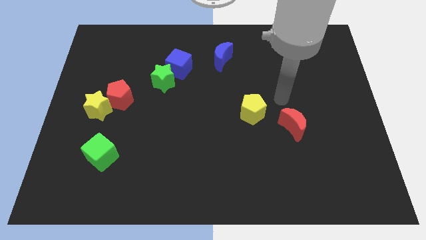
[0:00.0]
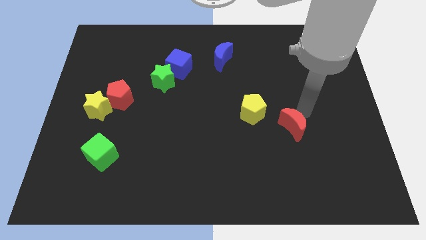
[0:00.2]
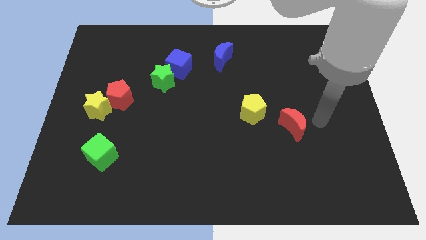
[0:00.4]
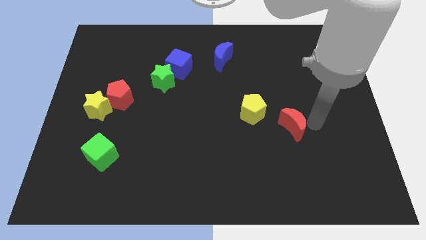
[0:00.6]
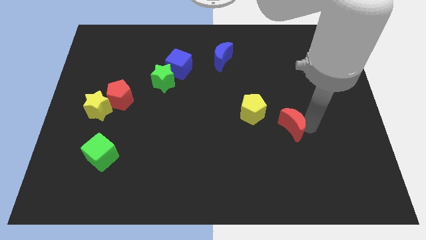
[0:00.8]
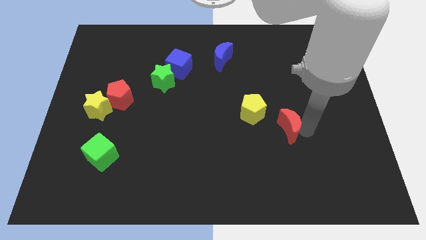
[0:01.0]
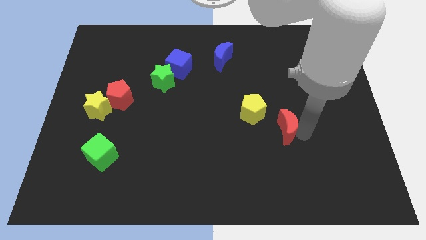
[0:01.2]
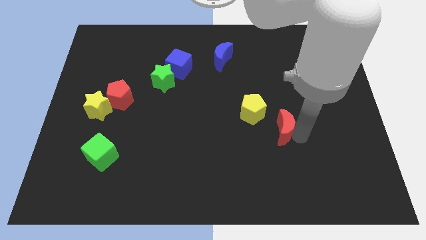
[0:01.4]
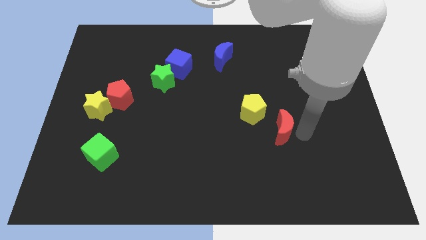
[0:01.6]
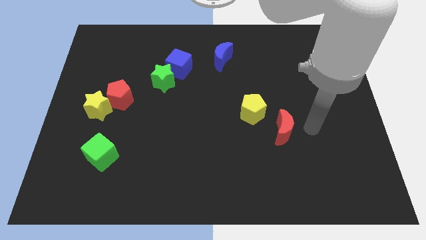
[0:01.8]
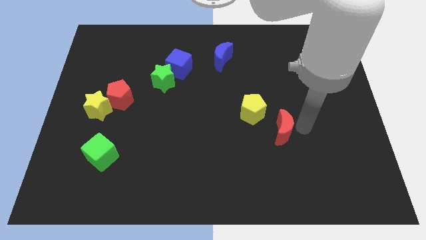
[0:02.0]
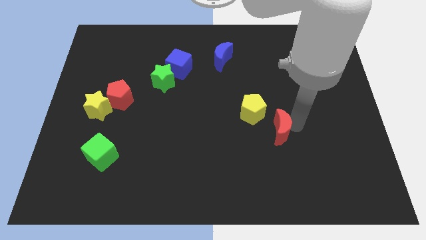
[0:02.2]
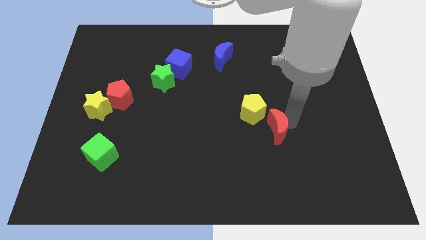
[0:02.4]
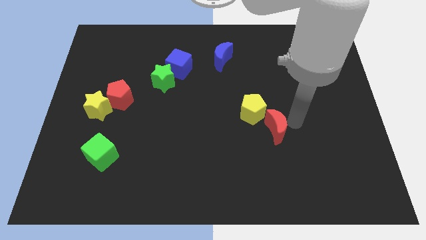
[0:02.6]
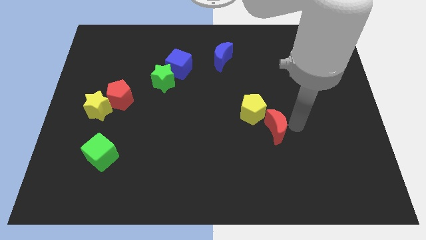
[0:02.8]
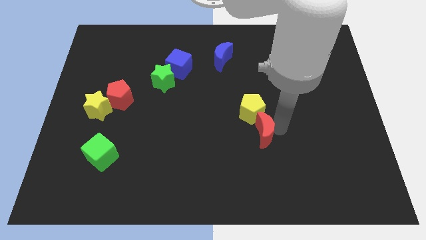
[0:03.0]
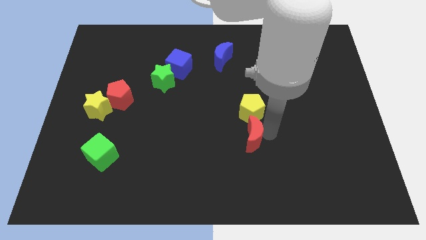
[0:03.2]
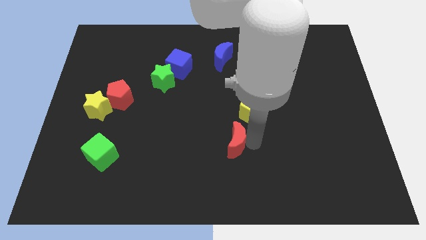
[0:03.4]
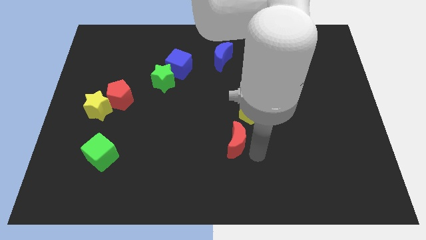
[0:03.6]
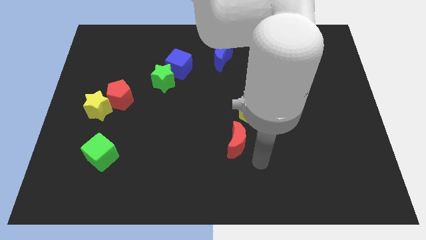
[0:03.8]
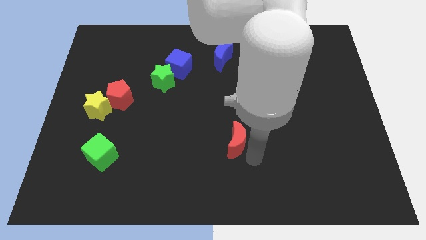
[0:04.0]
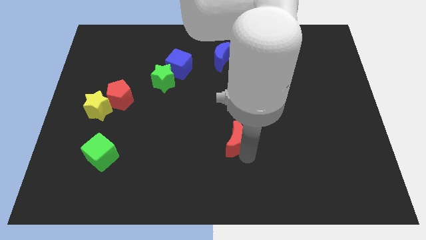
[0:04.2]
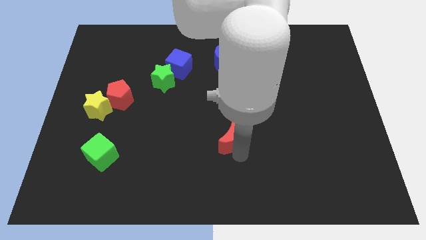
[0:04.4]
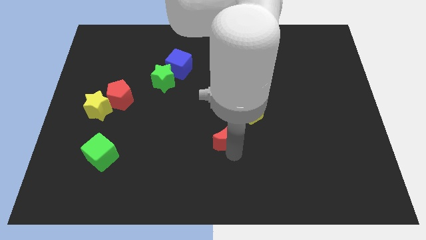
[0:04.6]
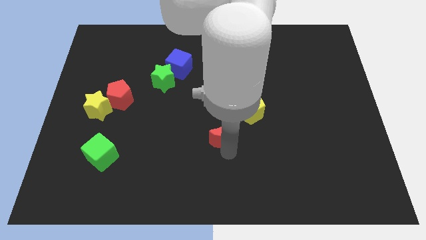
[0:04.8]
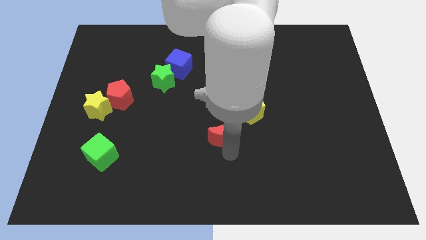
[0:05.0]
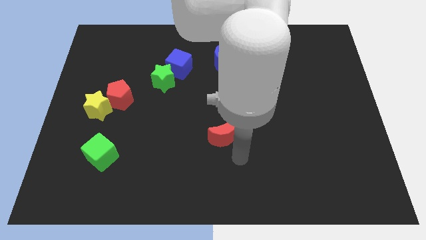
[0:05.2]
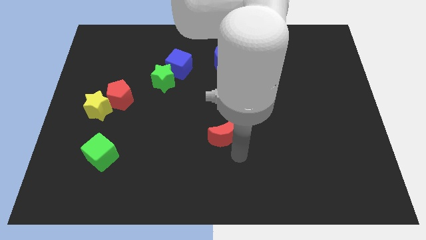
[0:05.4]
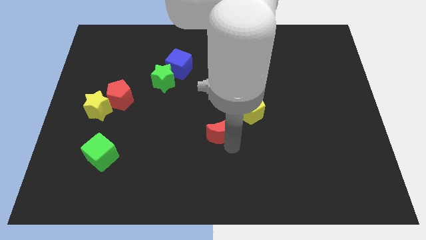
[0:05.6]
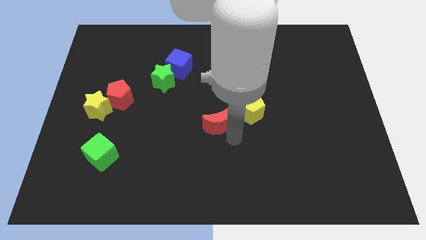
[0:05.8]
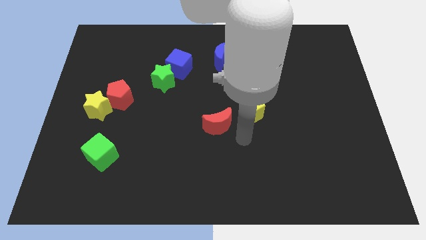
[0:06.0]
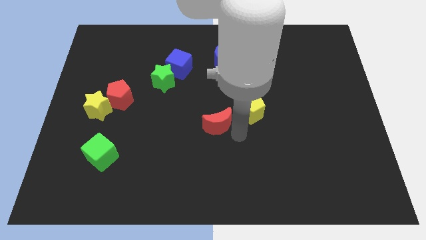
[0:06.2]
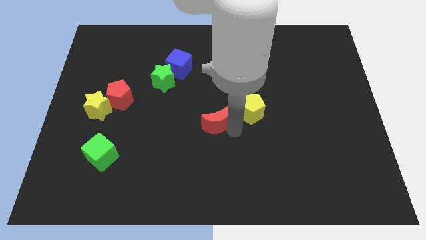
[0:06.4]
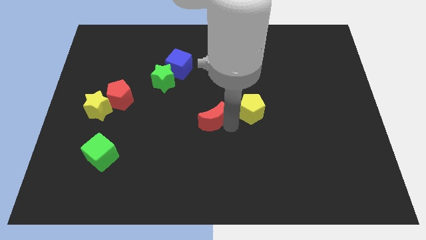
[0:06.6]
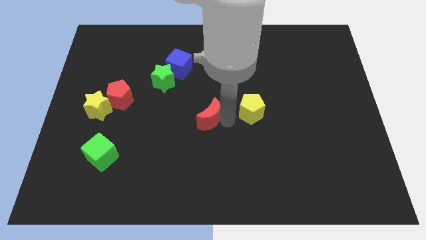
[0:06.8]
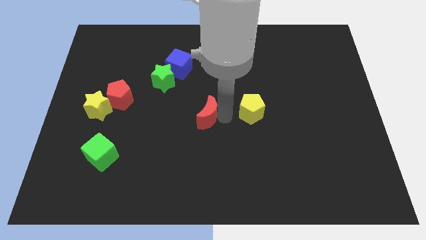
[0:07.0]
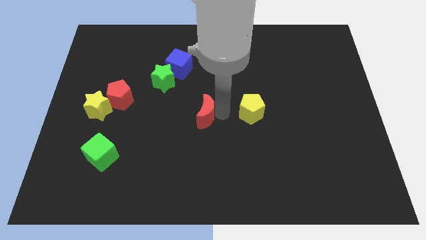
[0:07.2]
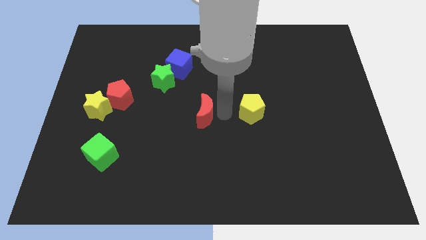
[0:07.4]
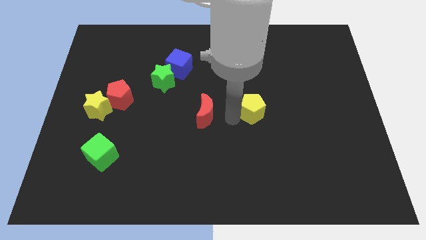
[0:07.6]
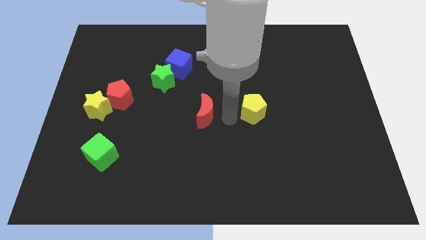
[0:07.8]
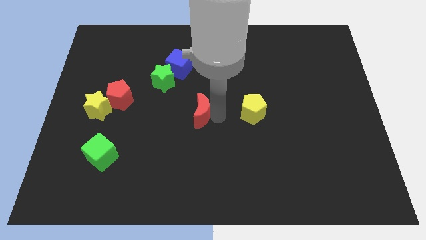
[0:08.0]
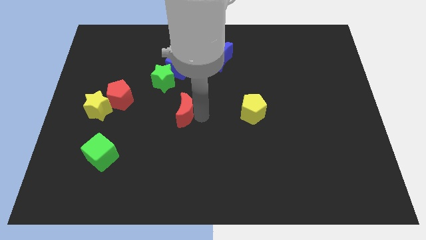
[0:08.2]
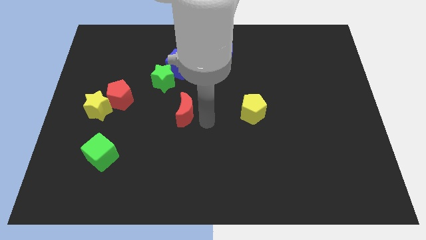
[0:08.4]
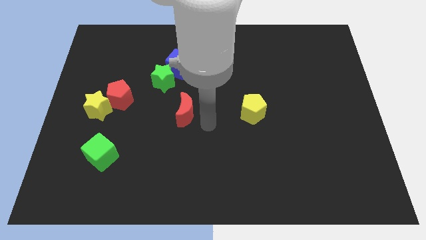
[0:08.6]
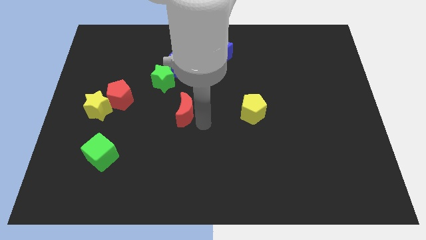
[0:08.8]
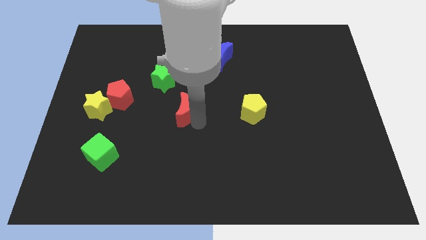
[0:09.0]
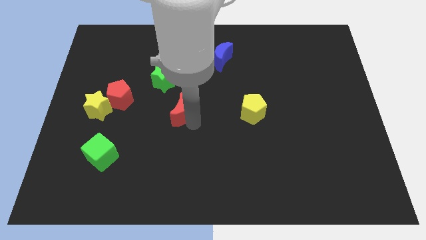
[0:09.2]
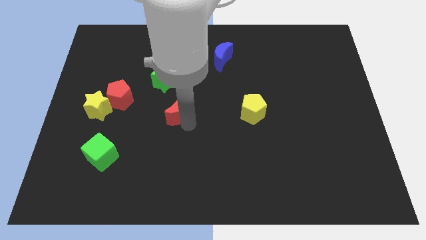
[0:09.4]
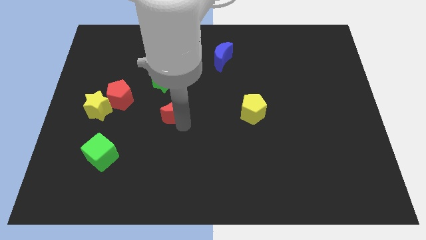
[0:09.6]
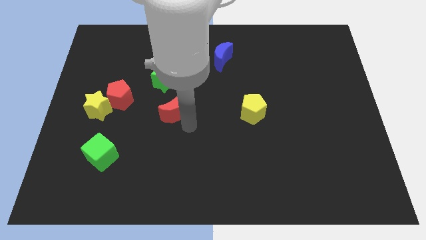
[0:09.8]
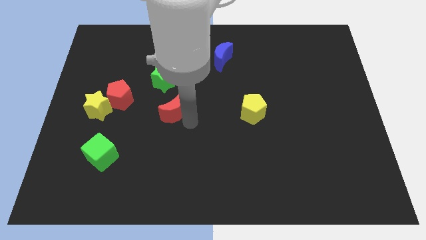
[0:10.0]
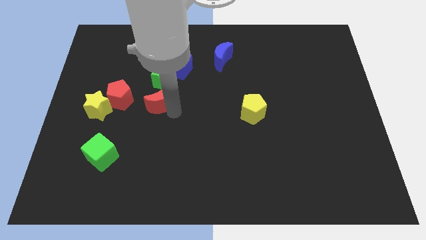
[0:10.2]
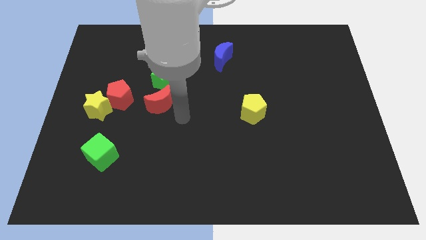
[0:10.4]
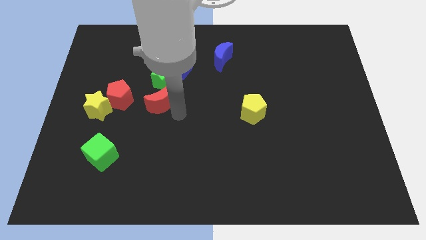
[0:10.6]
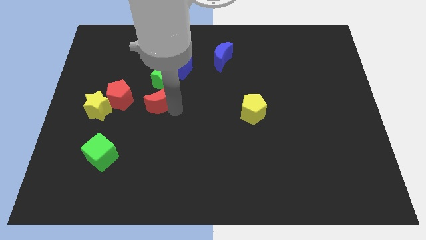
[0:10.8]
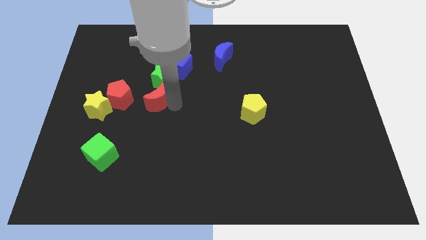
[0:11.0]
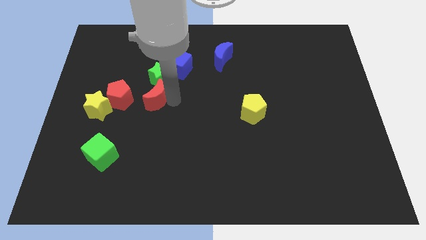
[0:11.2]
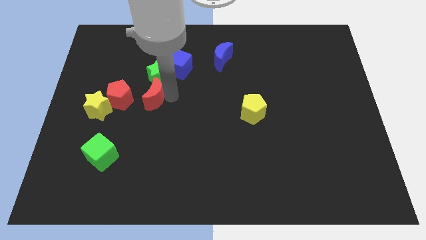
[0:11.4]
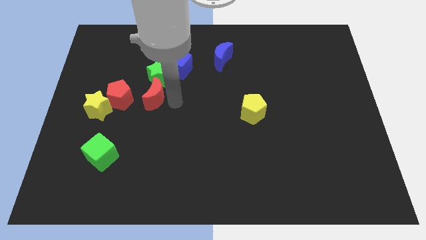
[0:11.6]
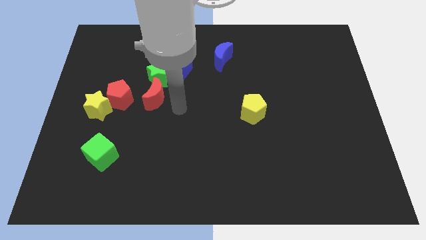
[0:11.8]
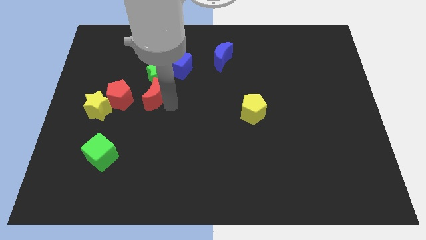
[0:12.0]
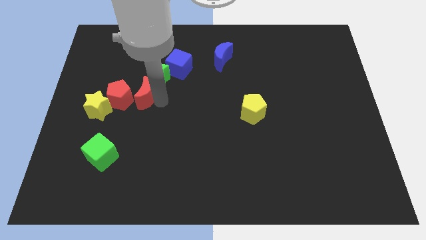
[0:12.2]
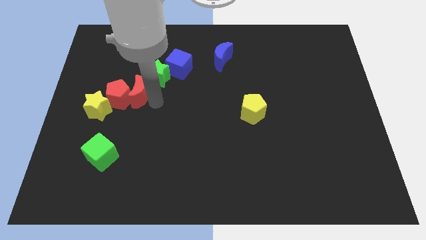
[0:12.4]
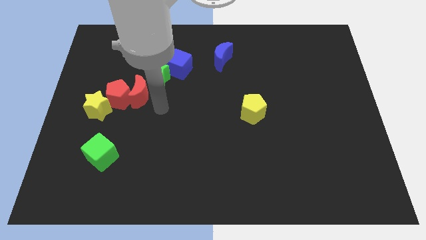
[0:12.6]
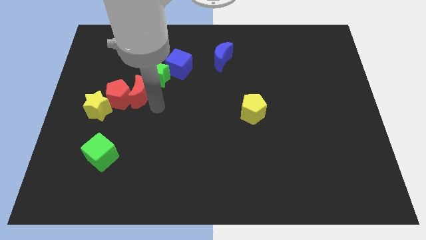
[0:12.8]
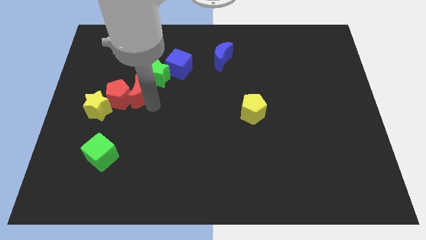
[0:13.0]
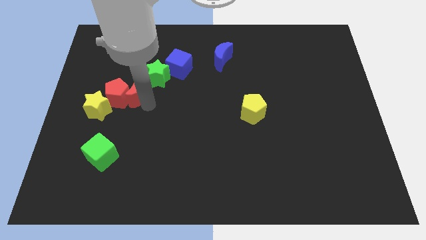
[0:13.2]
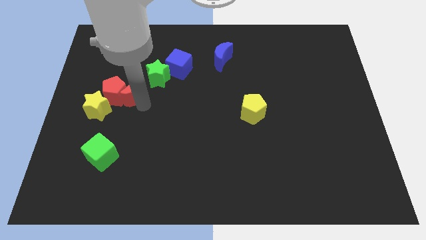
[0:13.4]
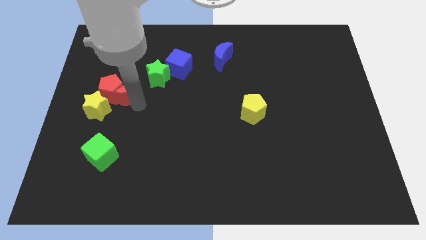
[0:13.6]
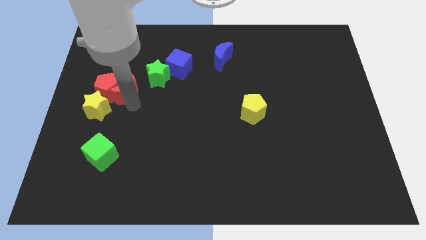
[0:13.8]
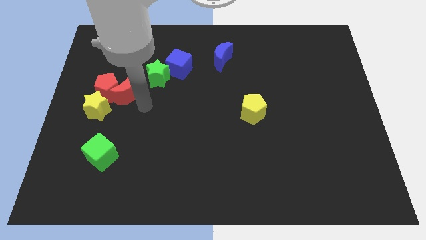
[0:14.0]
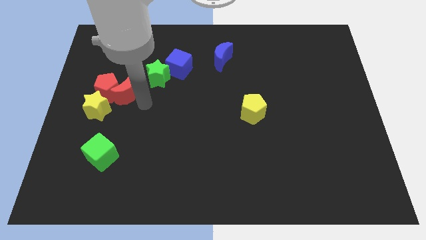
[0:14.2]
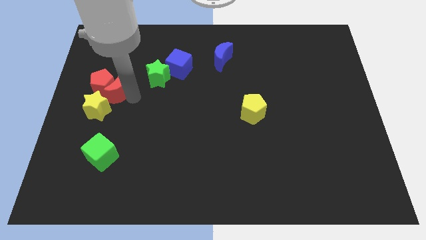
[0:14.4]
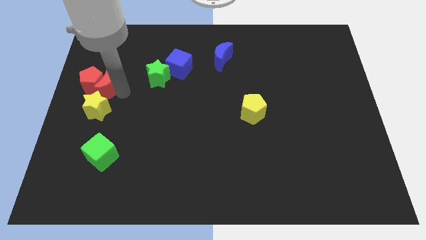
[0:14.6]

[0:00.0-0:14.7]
move the red moon to the left side of the board
